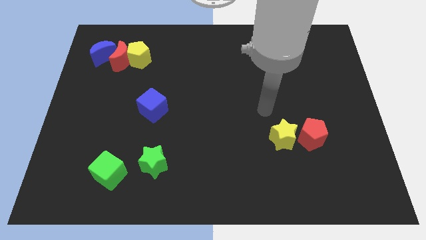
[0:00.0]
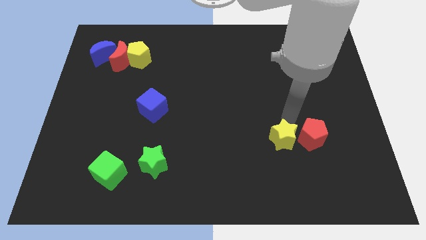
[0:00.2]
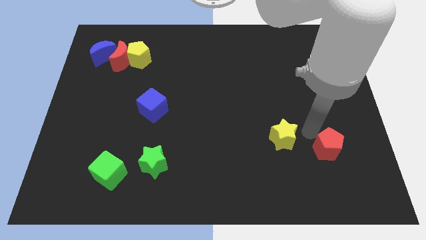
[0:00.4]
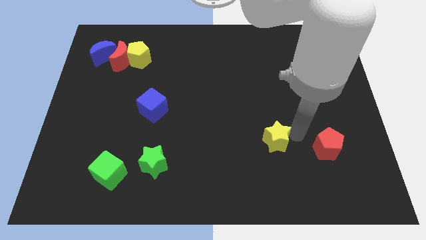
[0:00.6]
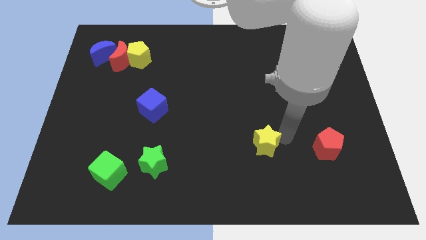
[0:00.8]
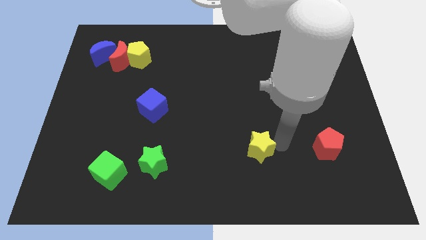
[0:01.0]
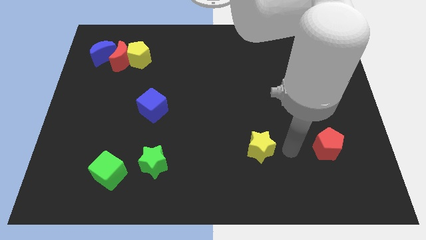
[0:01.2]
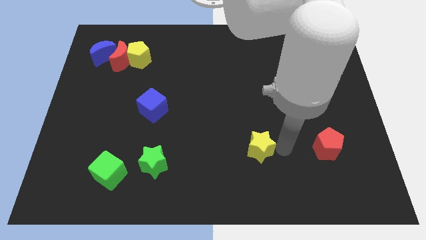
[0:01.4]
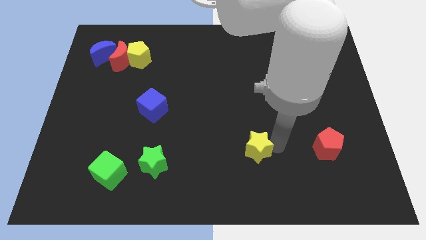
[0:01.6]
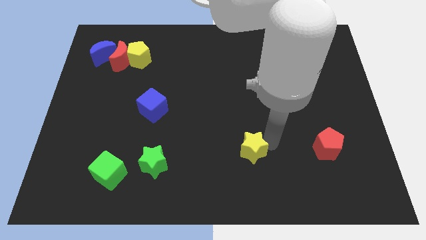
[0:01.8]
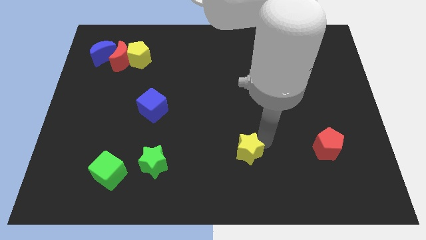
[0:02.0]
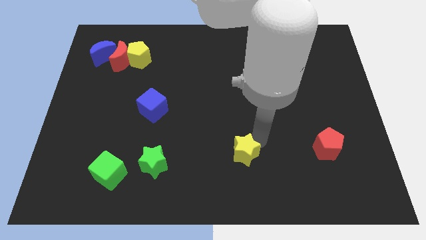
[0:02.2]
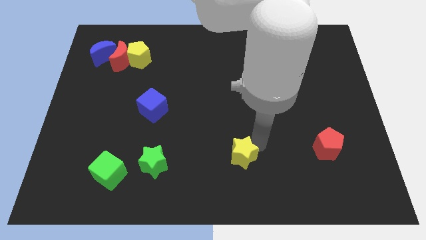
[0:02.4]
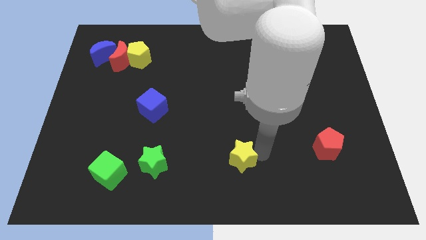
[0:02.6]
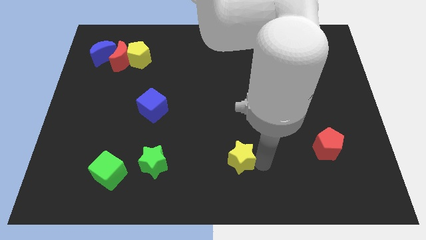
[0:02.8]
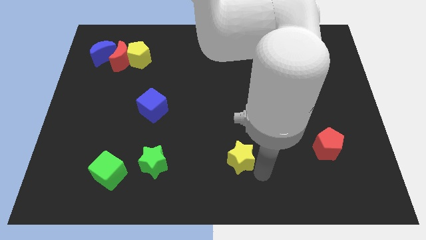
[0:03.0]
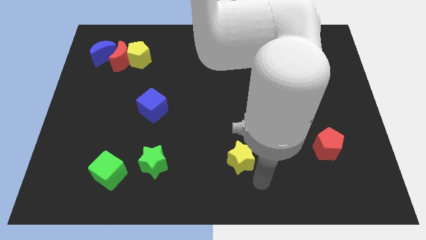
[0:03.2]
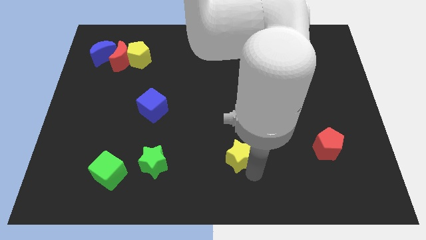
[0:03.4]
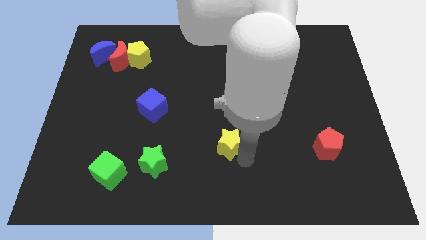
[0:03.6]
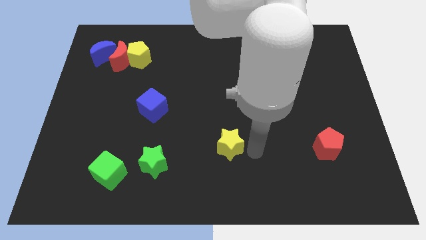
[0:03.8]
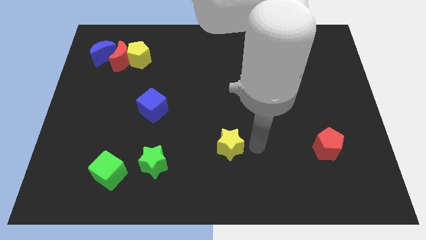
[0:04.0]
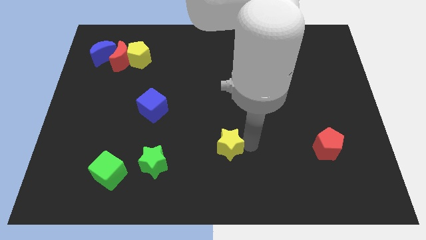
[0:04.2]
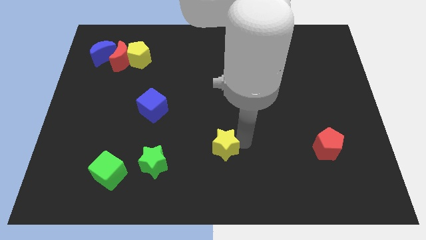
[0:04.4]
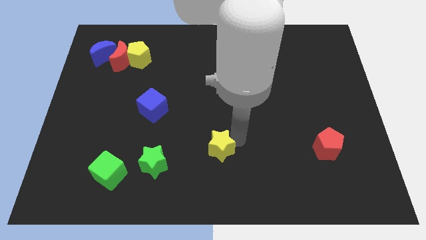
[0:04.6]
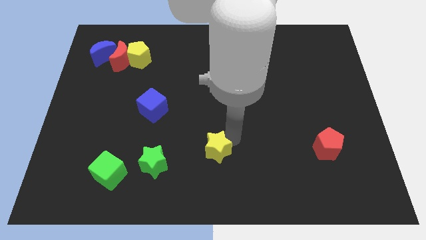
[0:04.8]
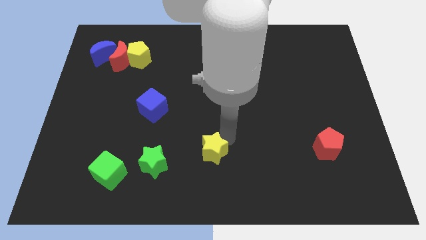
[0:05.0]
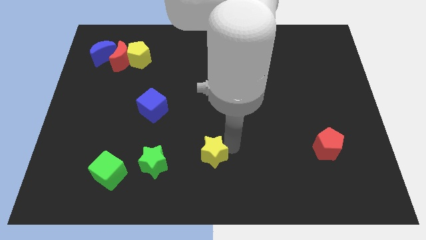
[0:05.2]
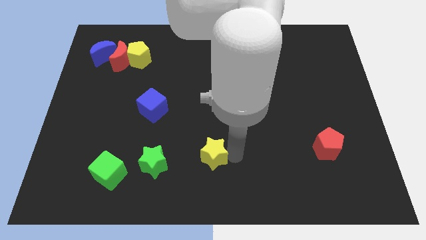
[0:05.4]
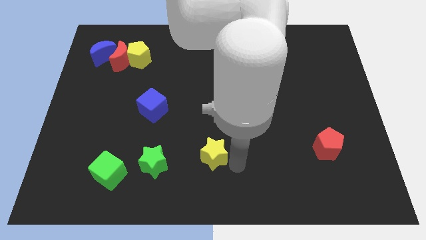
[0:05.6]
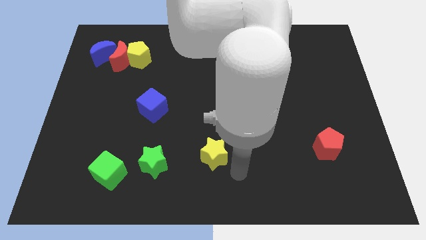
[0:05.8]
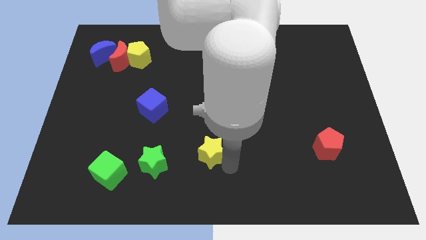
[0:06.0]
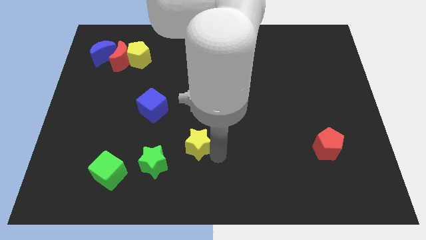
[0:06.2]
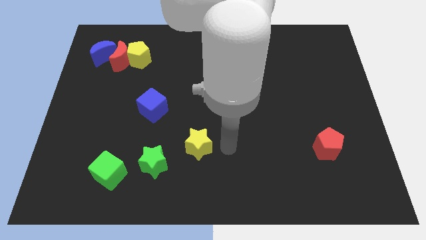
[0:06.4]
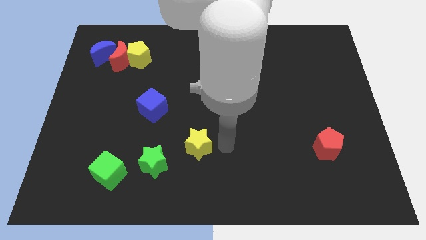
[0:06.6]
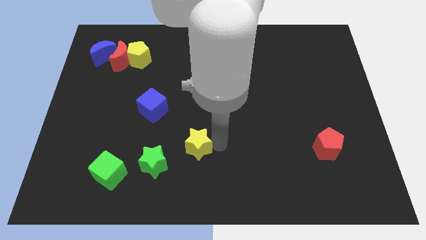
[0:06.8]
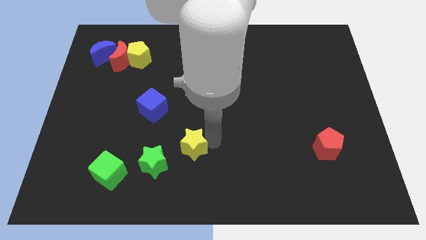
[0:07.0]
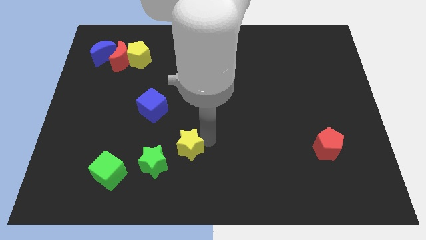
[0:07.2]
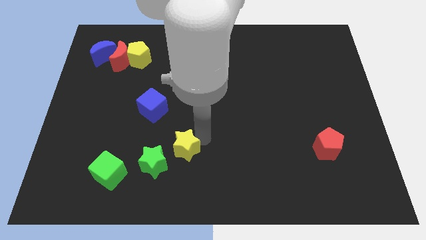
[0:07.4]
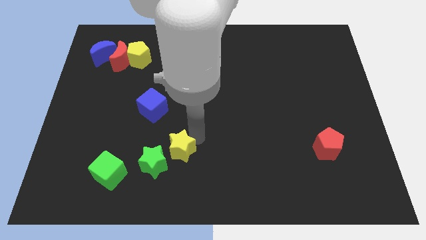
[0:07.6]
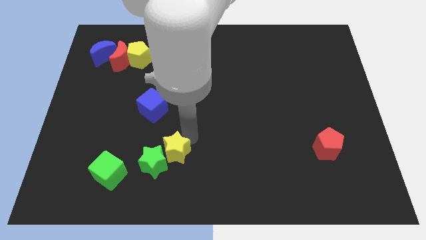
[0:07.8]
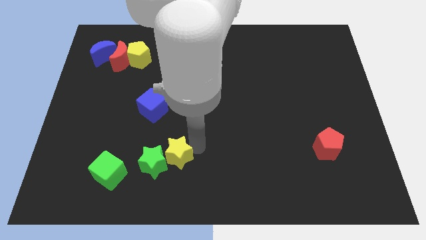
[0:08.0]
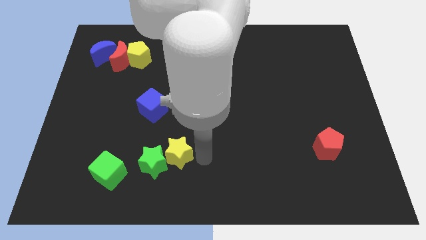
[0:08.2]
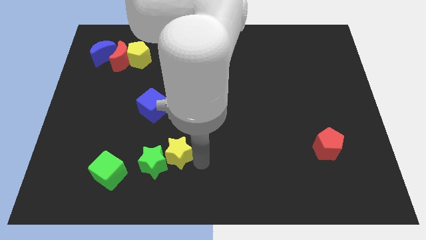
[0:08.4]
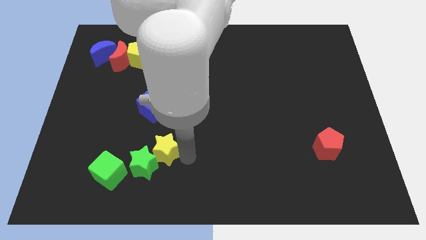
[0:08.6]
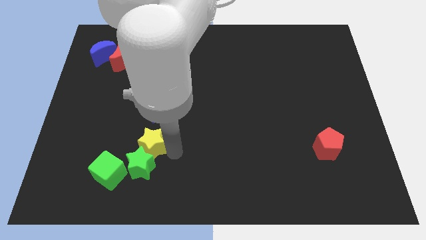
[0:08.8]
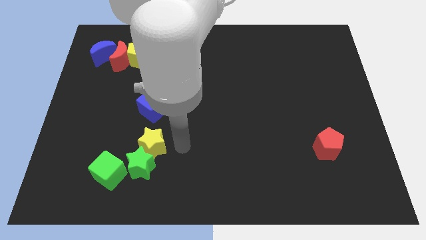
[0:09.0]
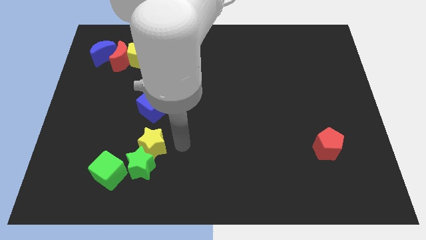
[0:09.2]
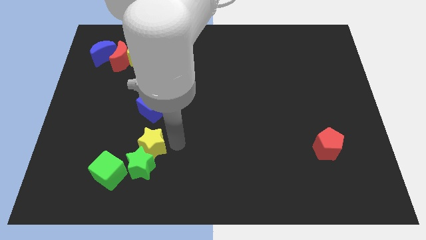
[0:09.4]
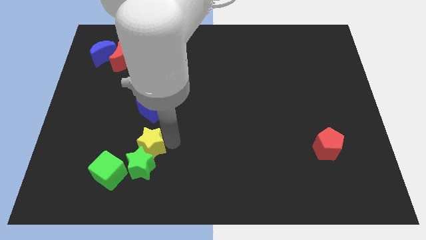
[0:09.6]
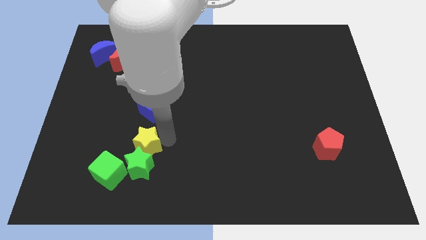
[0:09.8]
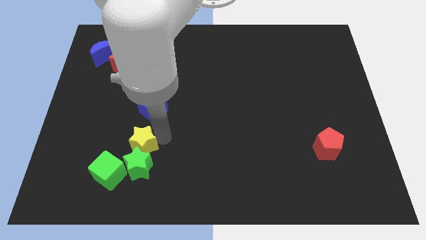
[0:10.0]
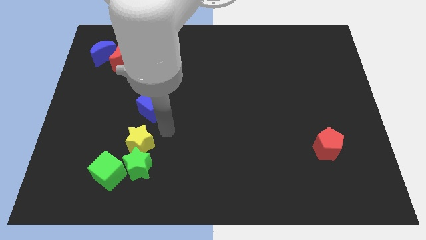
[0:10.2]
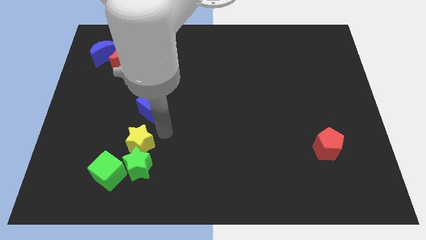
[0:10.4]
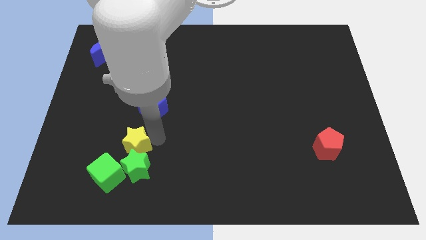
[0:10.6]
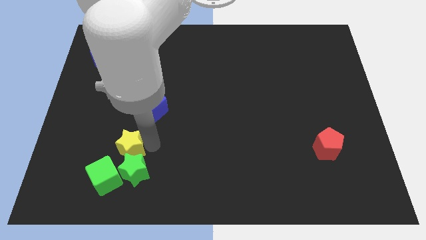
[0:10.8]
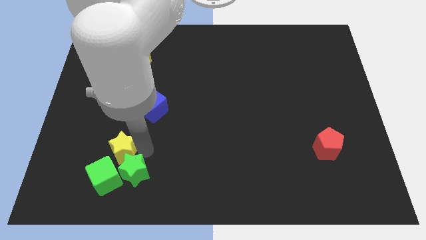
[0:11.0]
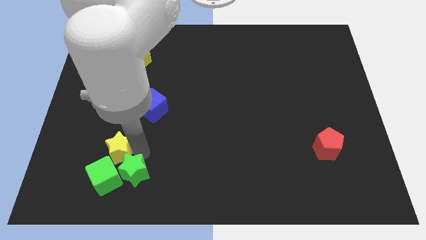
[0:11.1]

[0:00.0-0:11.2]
slide the yellow star to the left side of the green star
